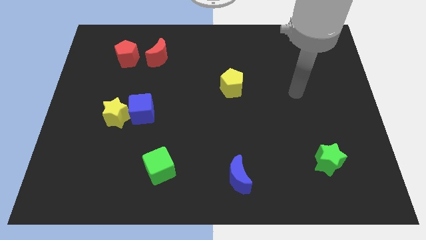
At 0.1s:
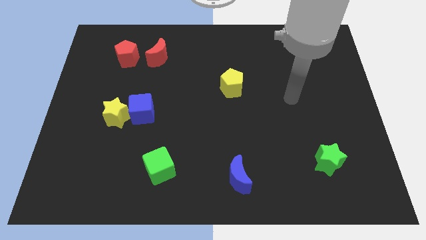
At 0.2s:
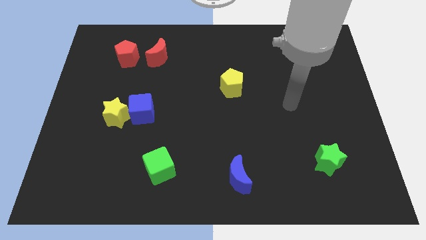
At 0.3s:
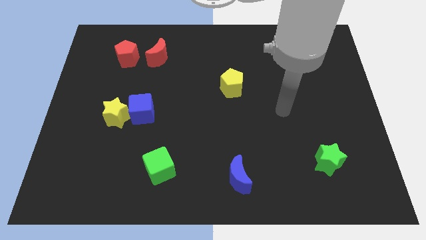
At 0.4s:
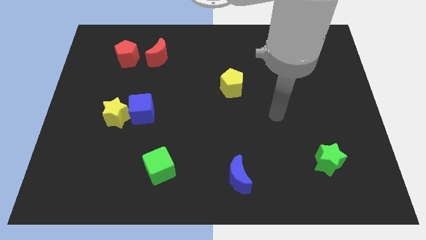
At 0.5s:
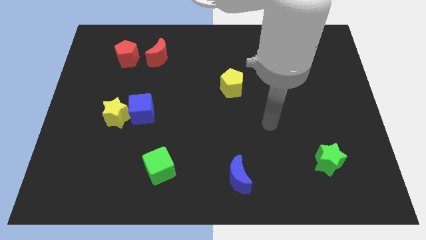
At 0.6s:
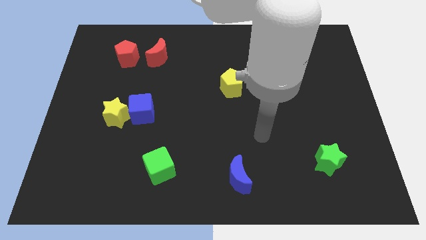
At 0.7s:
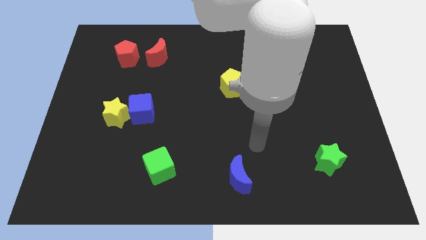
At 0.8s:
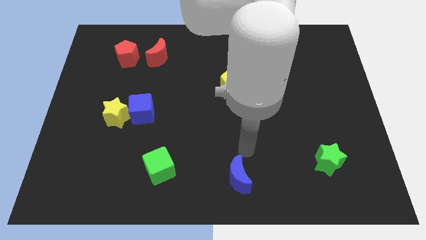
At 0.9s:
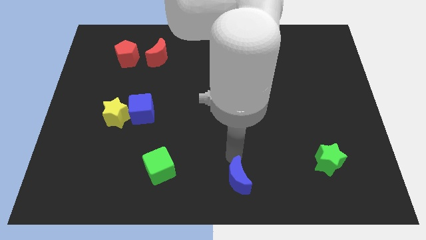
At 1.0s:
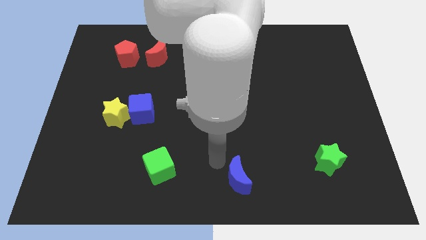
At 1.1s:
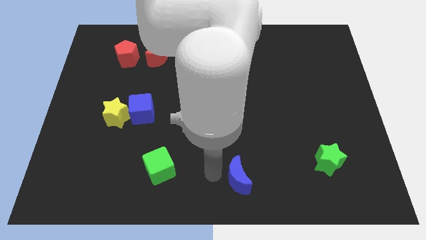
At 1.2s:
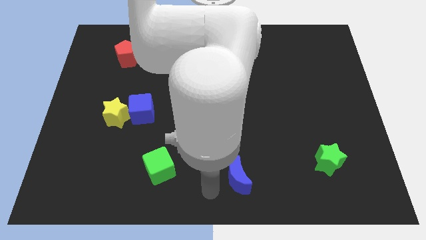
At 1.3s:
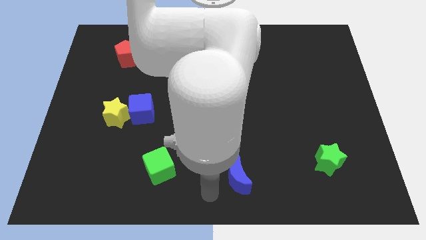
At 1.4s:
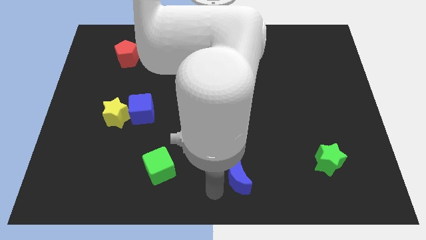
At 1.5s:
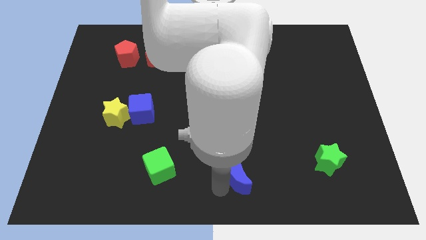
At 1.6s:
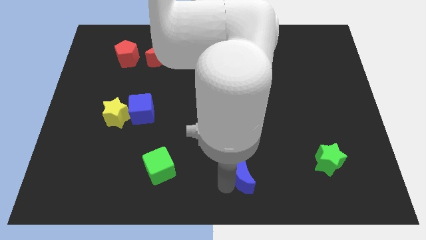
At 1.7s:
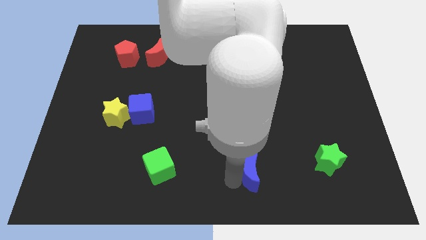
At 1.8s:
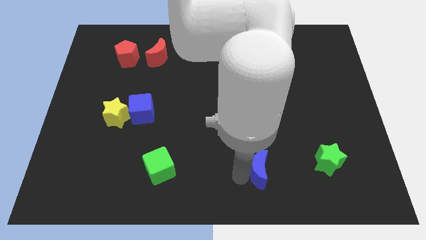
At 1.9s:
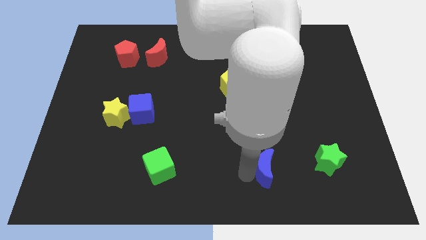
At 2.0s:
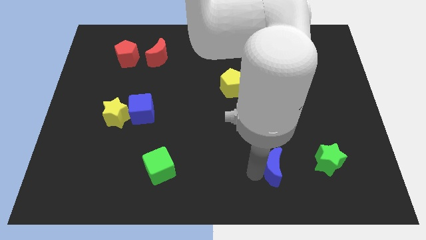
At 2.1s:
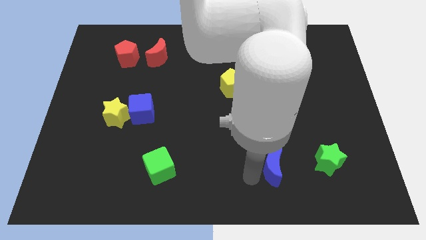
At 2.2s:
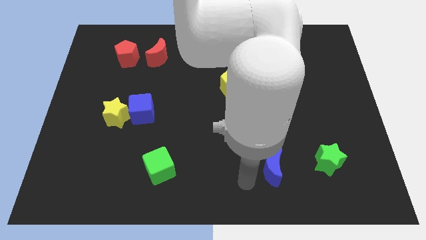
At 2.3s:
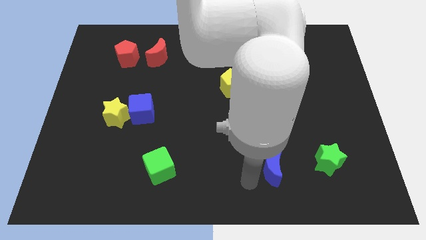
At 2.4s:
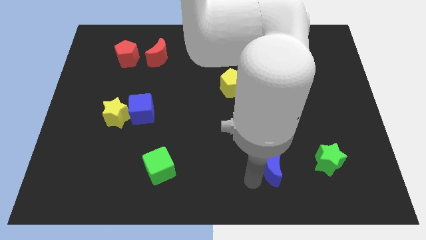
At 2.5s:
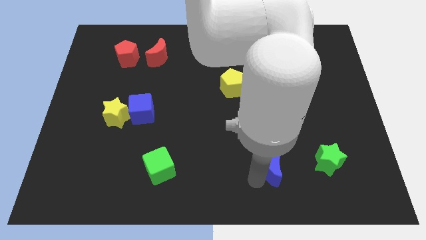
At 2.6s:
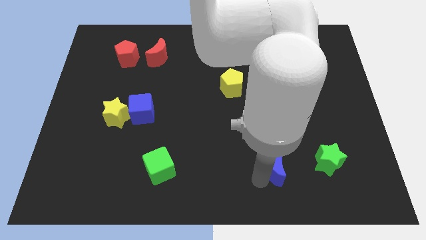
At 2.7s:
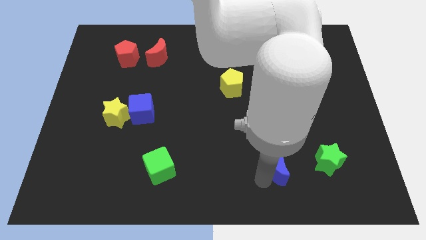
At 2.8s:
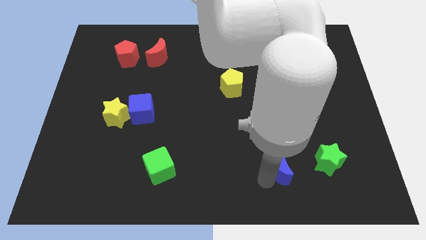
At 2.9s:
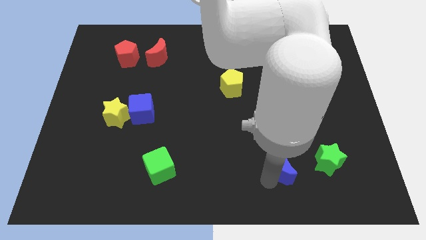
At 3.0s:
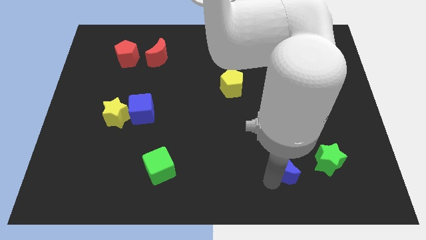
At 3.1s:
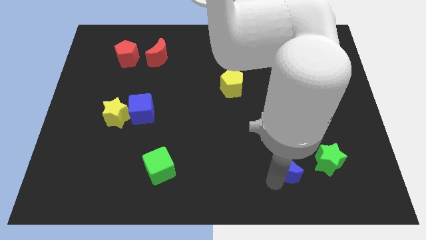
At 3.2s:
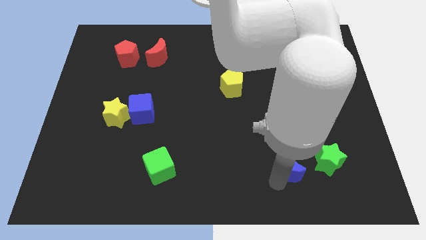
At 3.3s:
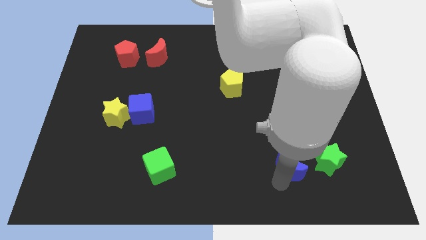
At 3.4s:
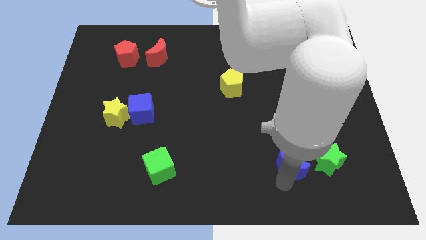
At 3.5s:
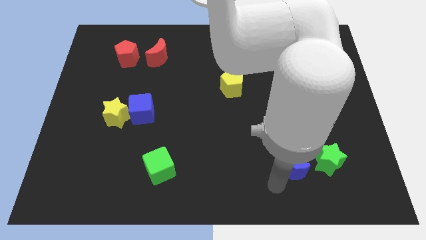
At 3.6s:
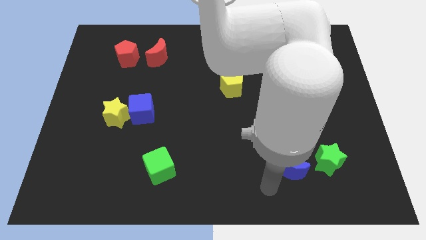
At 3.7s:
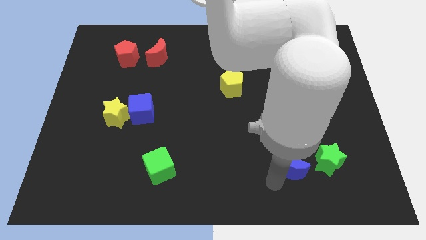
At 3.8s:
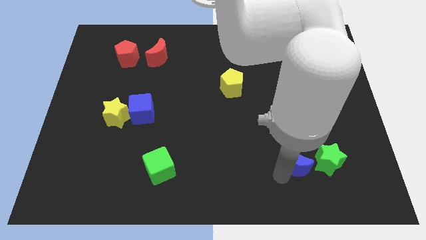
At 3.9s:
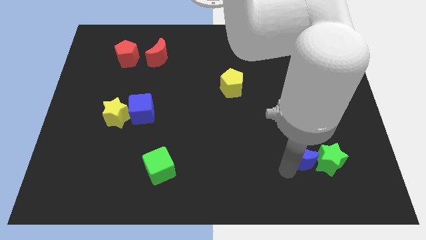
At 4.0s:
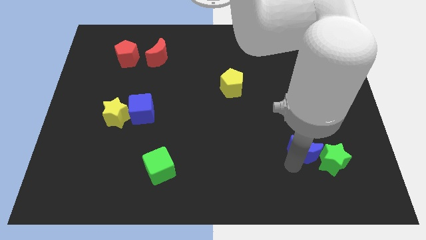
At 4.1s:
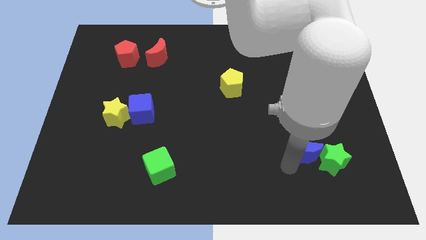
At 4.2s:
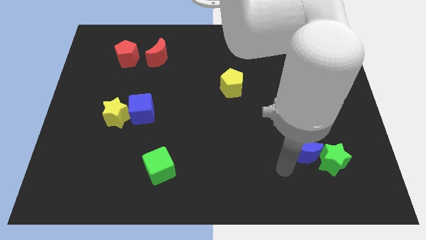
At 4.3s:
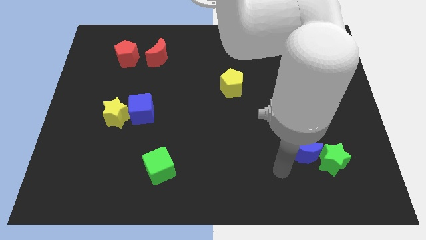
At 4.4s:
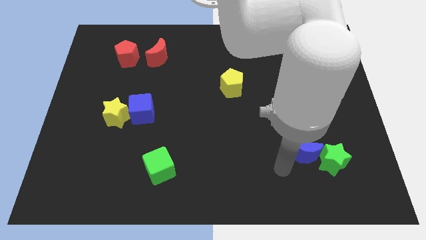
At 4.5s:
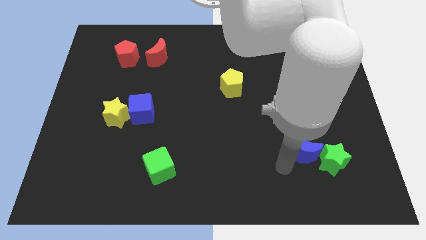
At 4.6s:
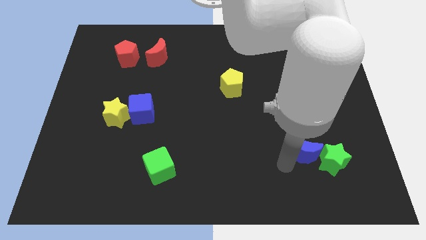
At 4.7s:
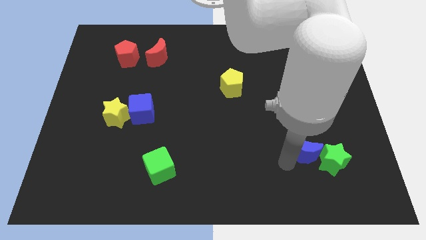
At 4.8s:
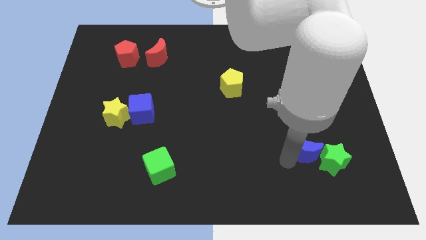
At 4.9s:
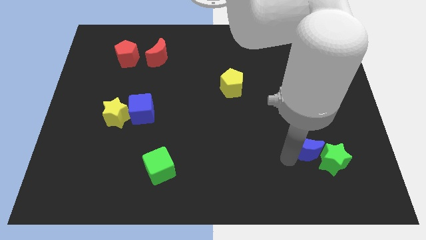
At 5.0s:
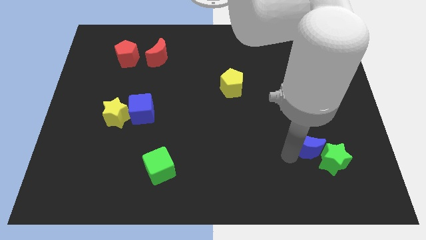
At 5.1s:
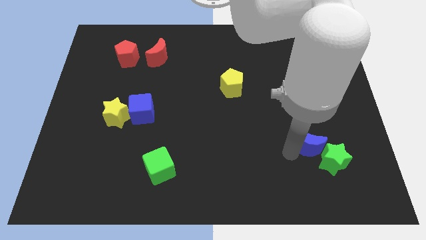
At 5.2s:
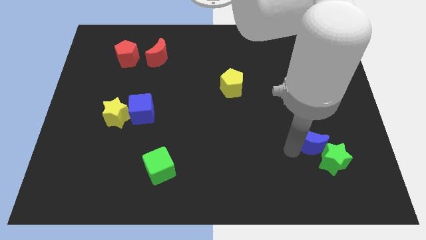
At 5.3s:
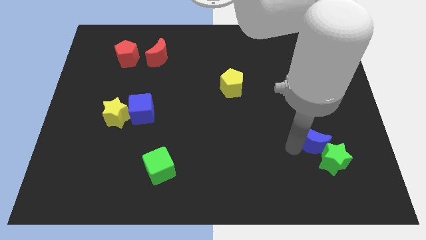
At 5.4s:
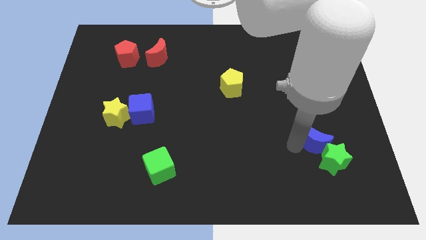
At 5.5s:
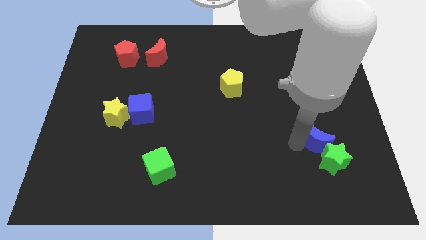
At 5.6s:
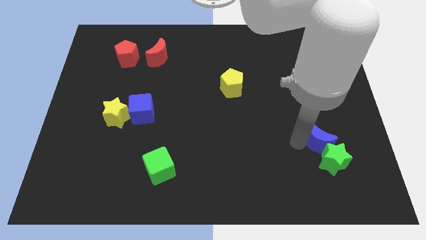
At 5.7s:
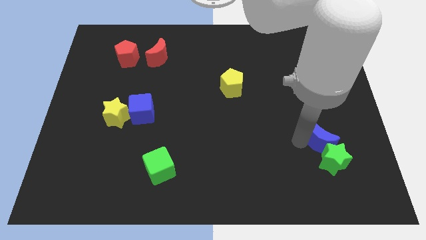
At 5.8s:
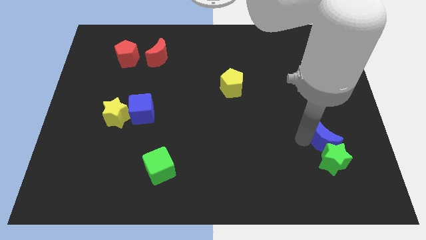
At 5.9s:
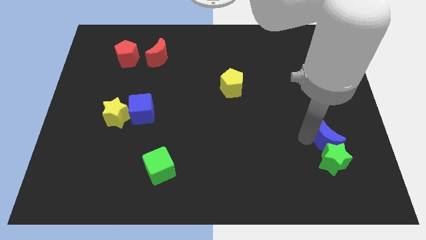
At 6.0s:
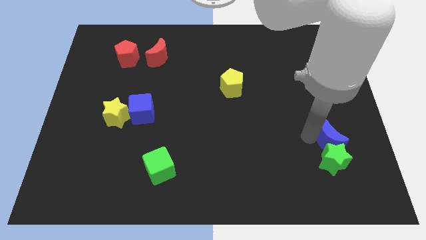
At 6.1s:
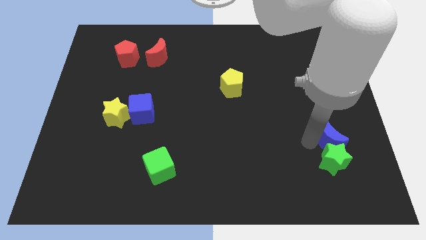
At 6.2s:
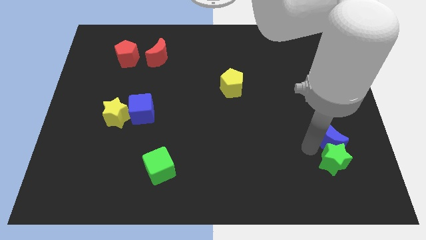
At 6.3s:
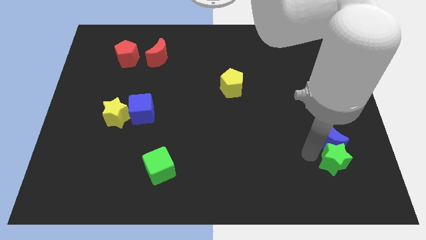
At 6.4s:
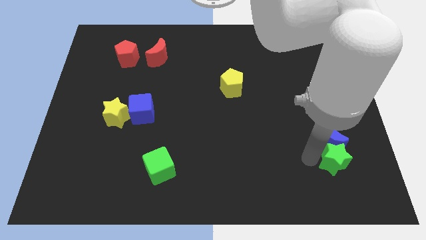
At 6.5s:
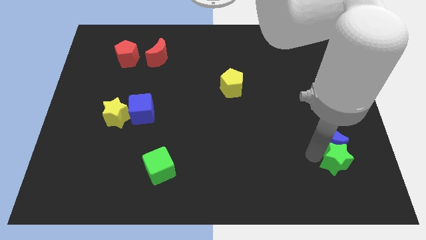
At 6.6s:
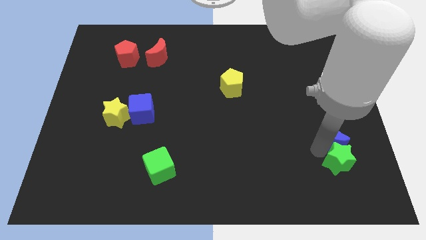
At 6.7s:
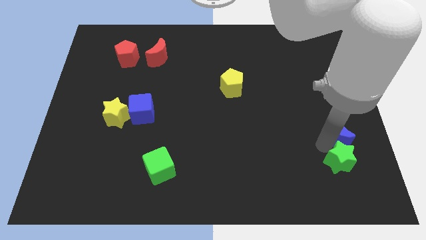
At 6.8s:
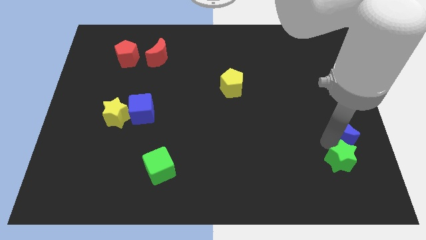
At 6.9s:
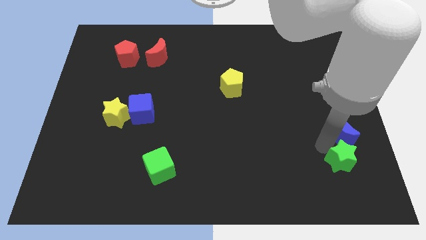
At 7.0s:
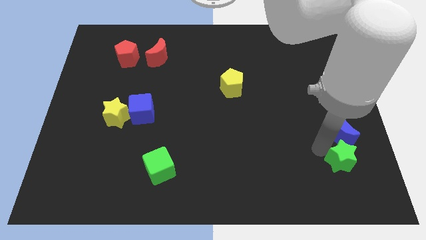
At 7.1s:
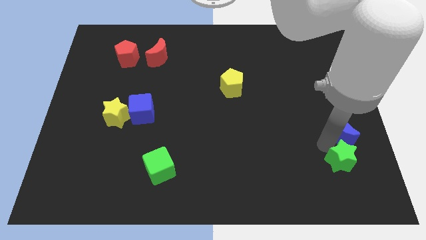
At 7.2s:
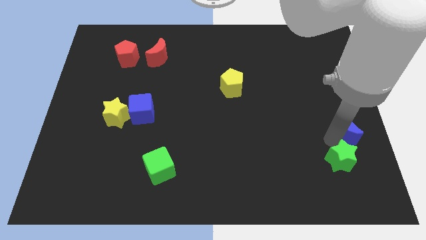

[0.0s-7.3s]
move the blue moon to the right side of the board
